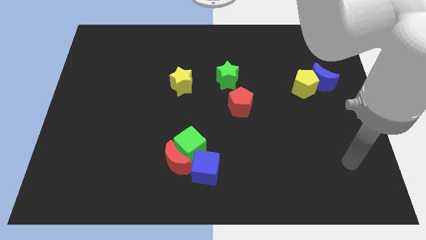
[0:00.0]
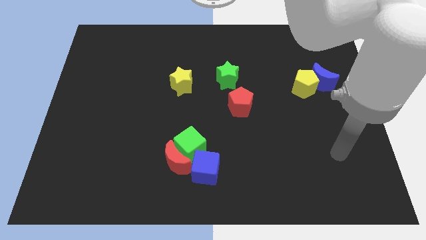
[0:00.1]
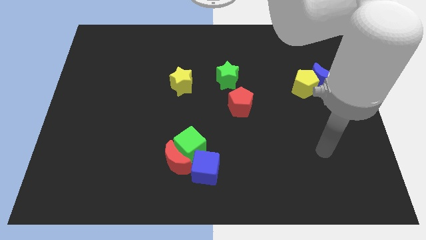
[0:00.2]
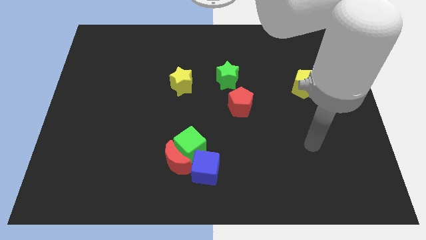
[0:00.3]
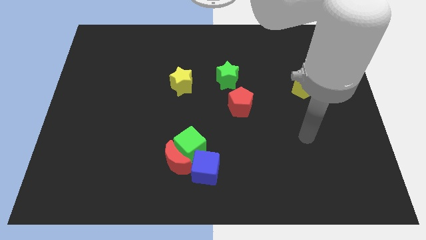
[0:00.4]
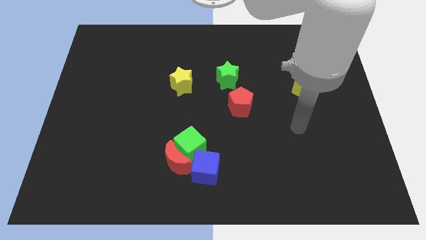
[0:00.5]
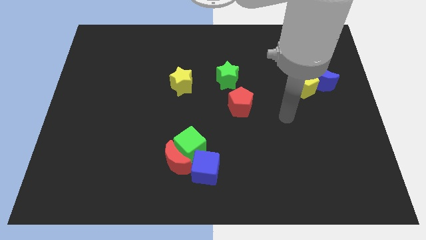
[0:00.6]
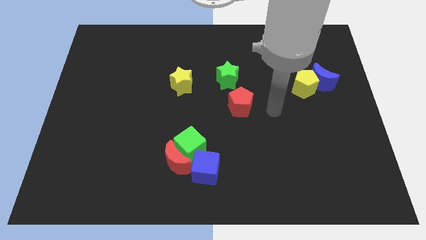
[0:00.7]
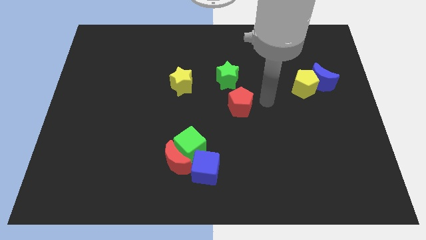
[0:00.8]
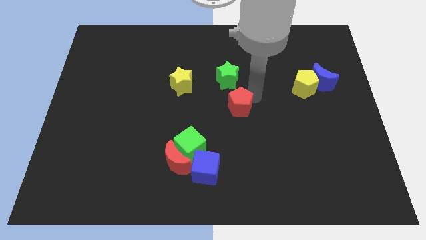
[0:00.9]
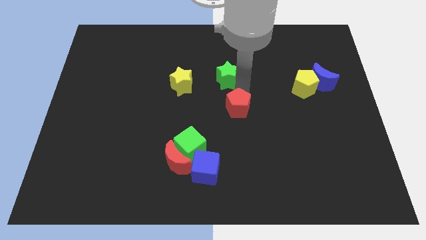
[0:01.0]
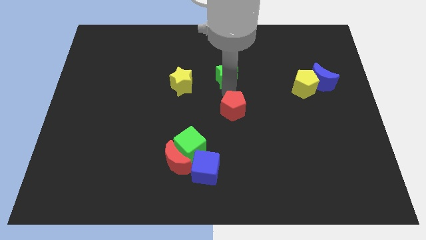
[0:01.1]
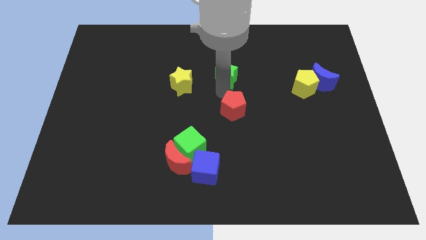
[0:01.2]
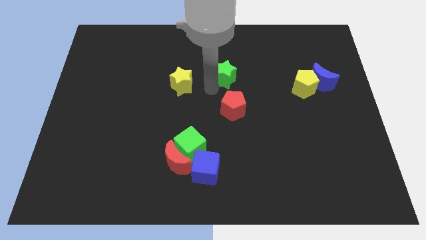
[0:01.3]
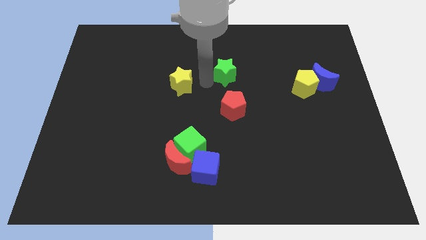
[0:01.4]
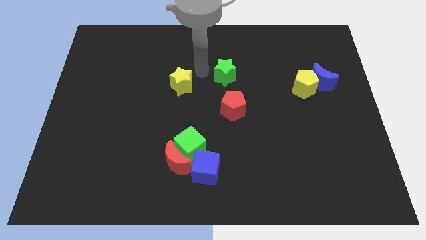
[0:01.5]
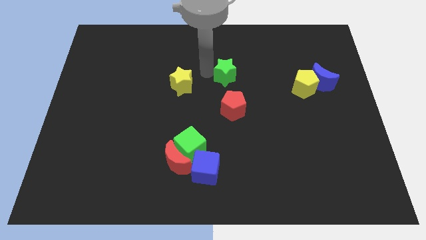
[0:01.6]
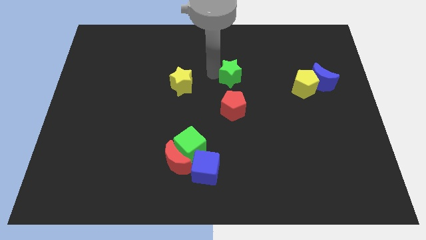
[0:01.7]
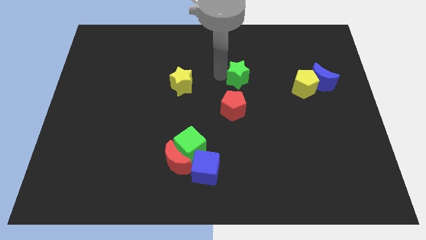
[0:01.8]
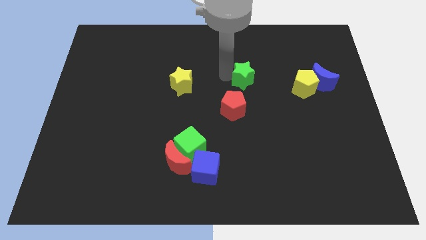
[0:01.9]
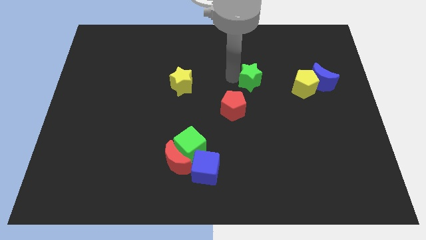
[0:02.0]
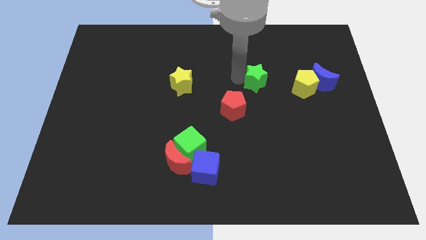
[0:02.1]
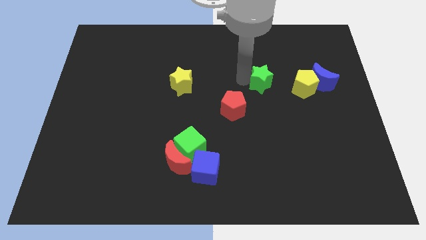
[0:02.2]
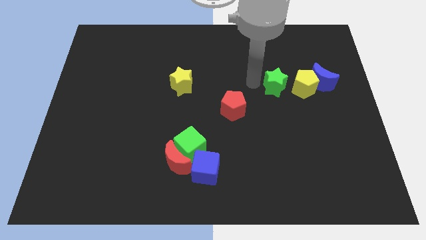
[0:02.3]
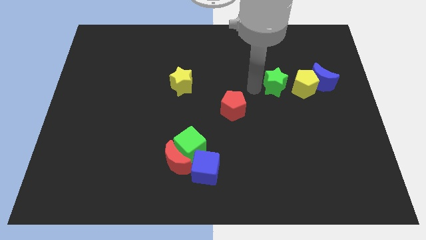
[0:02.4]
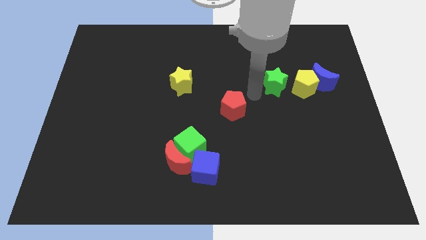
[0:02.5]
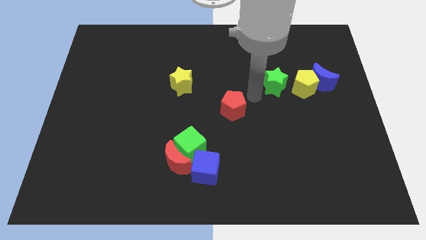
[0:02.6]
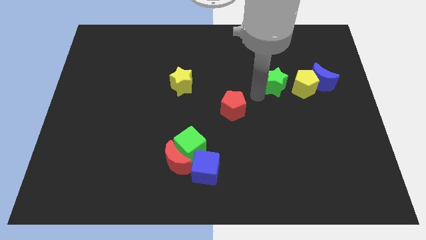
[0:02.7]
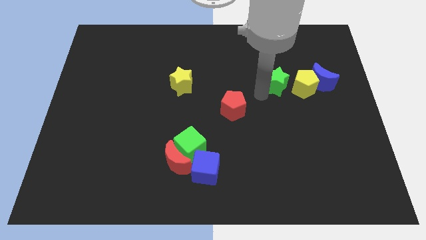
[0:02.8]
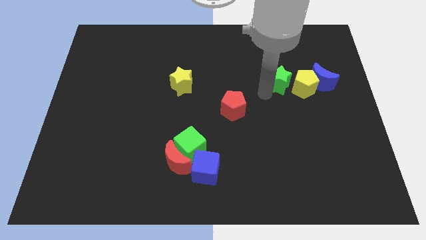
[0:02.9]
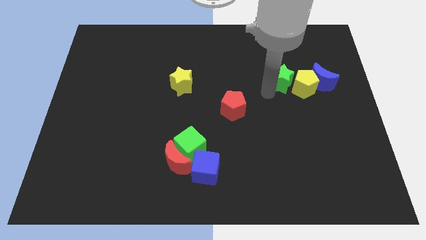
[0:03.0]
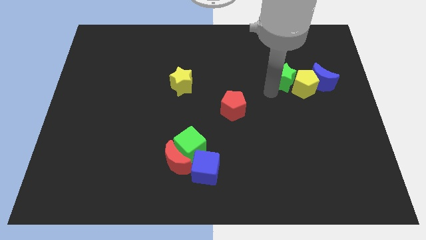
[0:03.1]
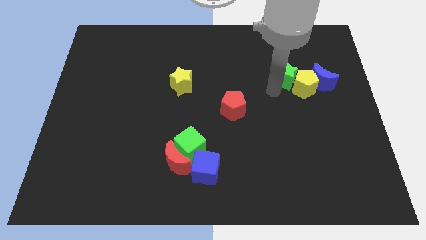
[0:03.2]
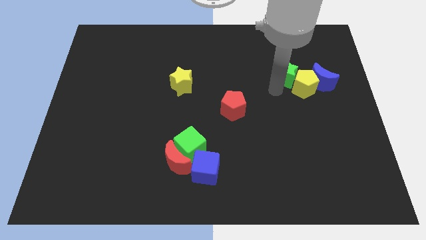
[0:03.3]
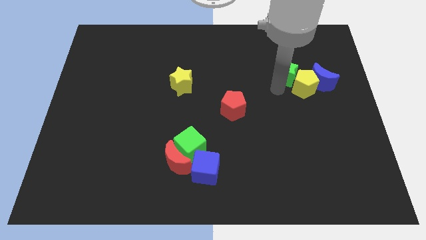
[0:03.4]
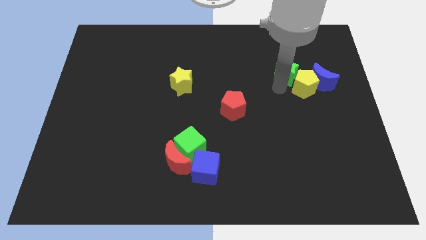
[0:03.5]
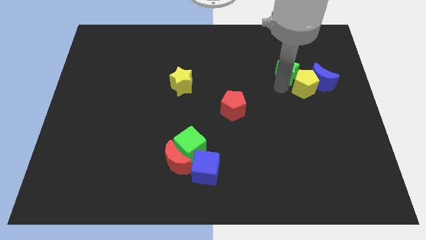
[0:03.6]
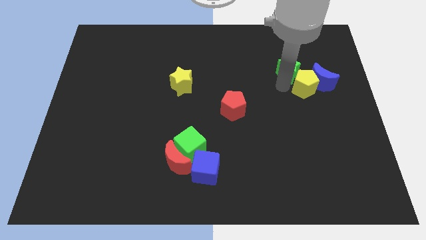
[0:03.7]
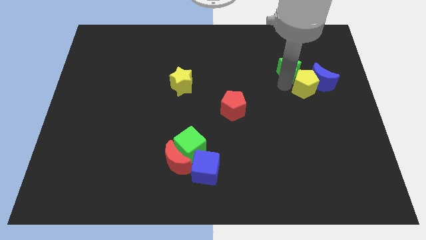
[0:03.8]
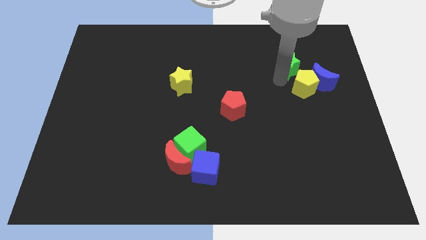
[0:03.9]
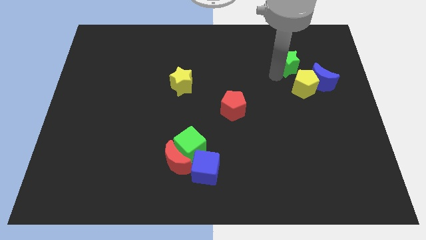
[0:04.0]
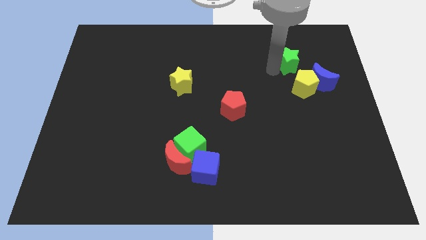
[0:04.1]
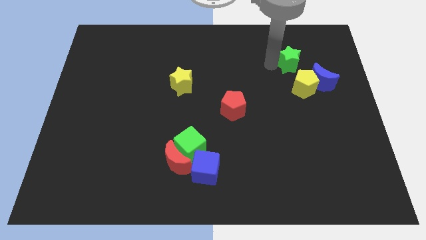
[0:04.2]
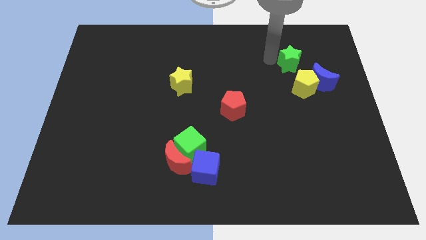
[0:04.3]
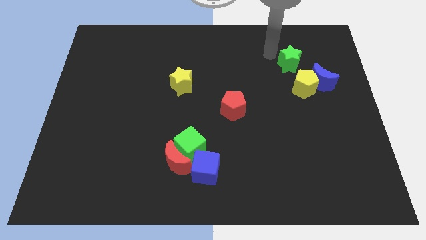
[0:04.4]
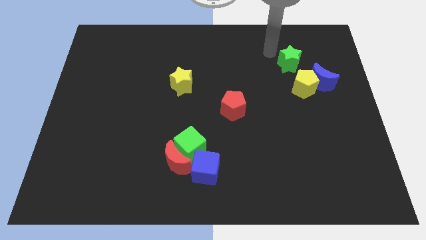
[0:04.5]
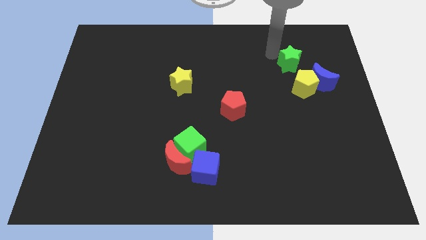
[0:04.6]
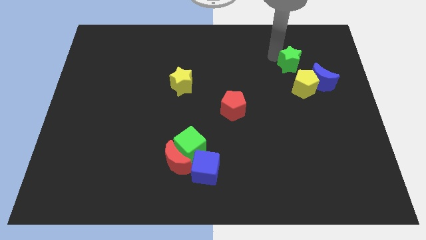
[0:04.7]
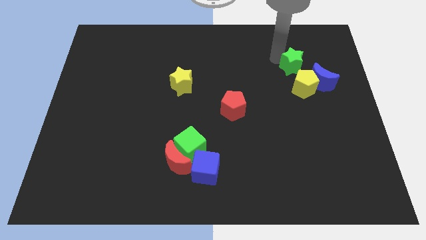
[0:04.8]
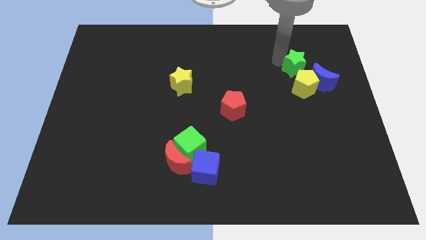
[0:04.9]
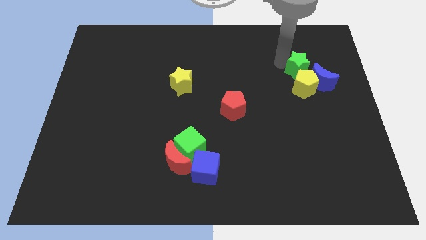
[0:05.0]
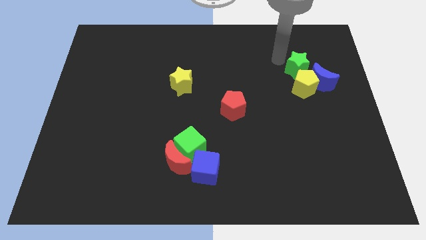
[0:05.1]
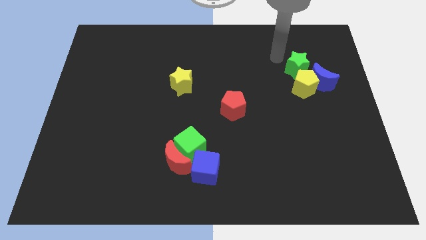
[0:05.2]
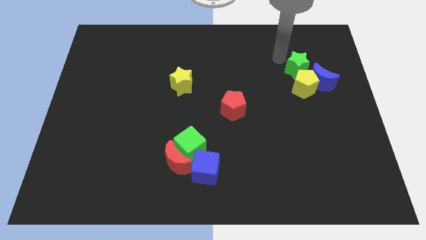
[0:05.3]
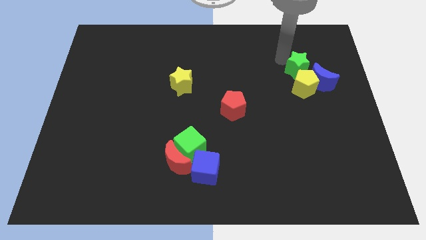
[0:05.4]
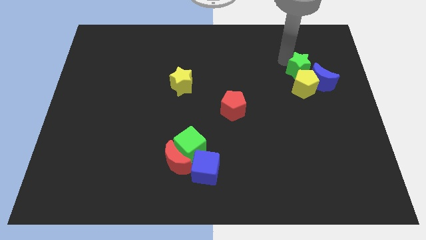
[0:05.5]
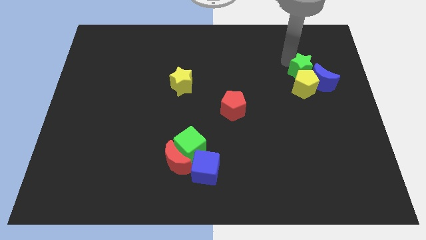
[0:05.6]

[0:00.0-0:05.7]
slide the green star to the blue moon

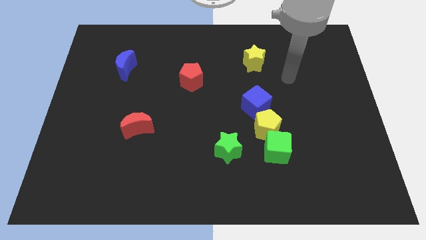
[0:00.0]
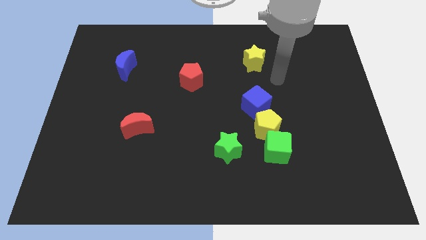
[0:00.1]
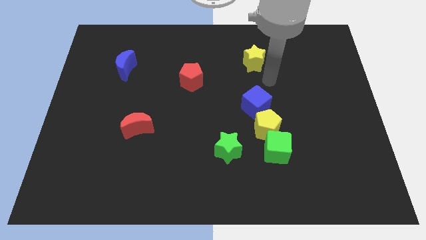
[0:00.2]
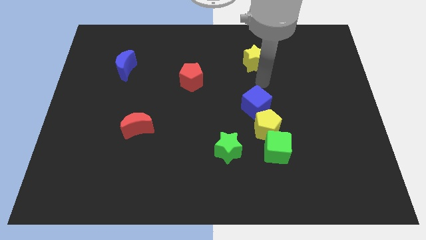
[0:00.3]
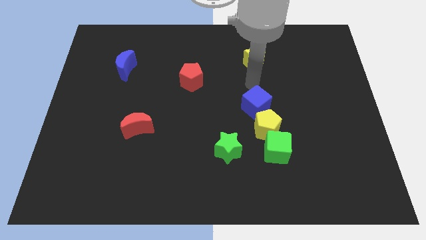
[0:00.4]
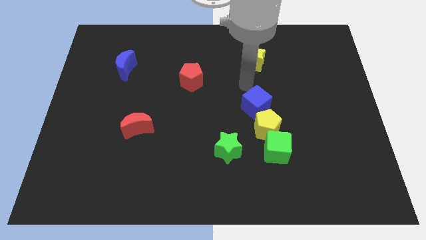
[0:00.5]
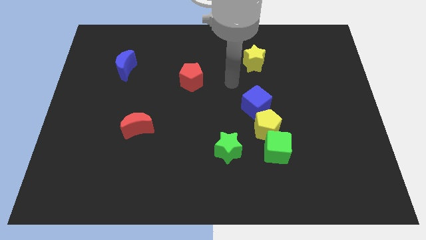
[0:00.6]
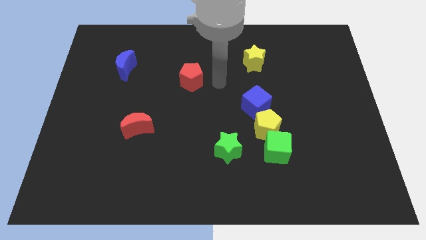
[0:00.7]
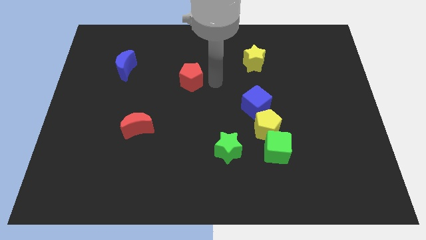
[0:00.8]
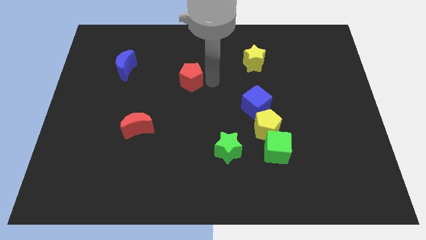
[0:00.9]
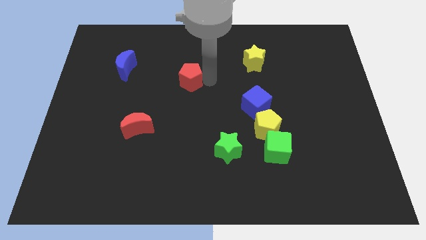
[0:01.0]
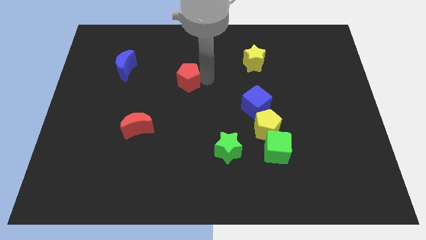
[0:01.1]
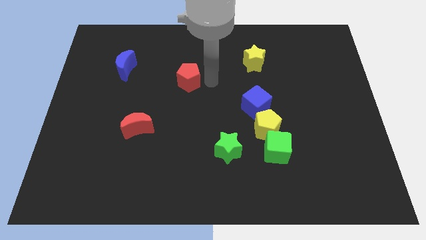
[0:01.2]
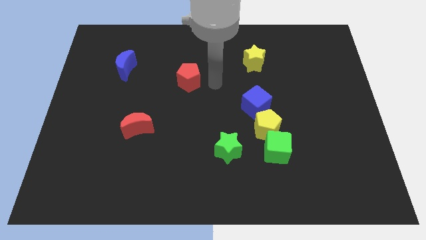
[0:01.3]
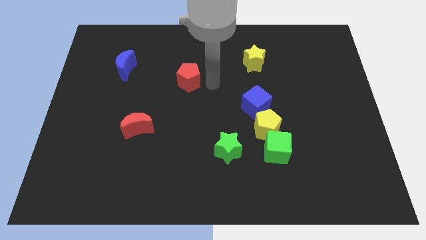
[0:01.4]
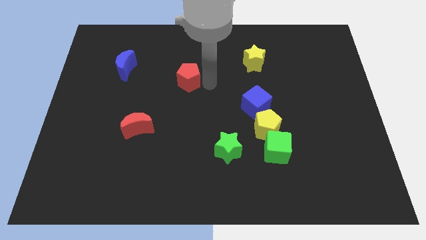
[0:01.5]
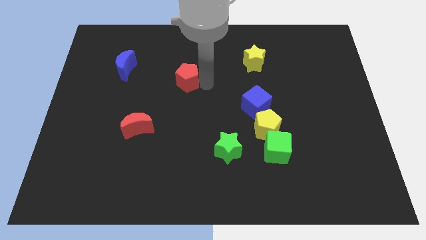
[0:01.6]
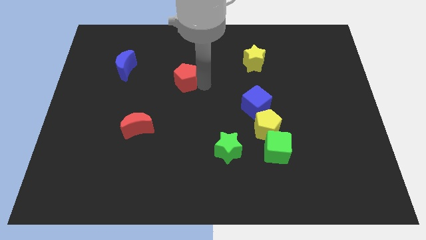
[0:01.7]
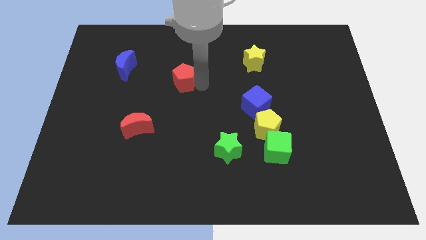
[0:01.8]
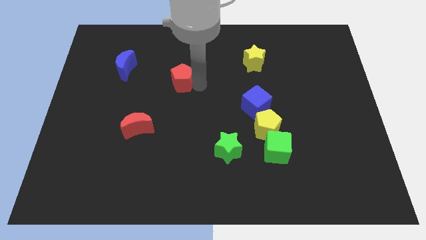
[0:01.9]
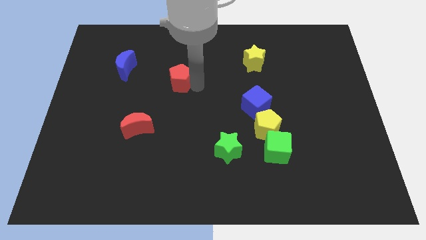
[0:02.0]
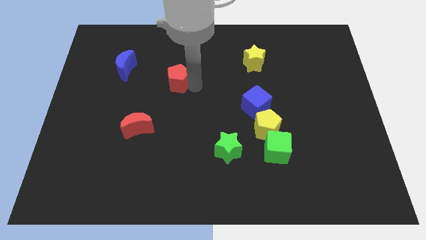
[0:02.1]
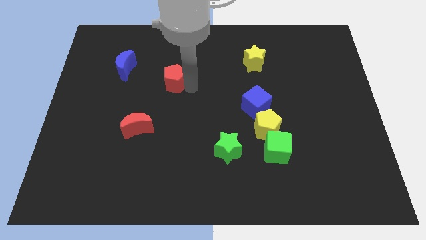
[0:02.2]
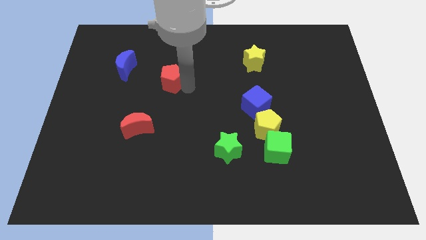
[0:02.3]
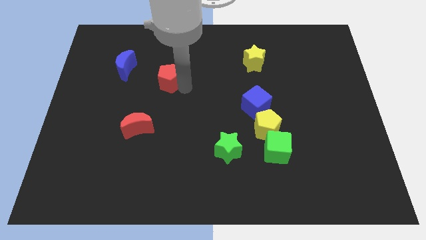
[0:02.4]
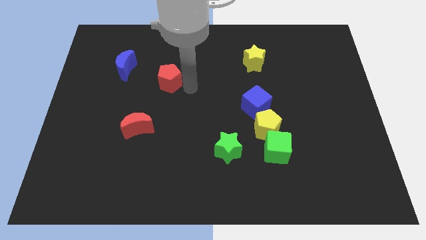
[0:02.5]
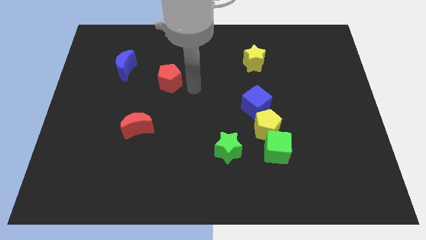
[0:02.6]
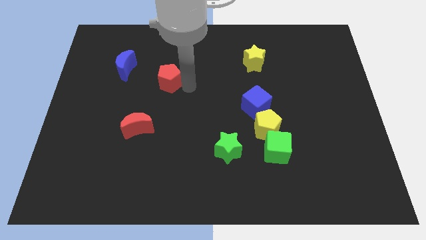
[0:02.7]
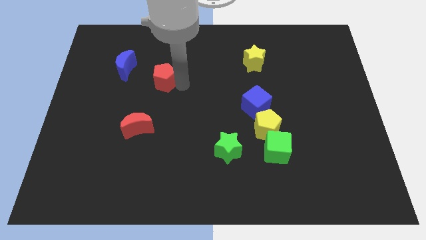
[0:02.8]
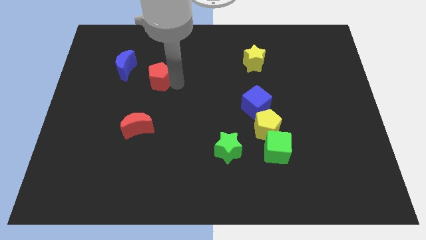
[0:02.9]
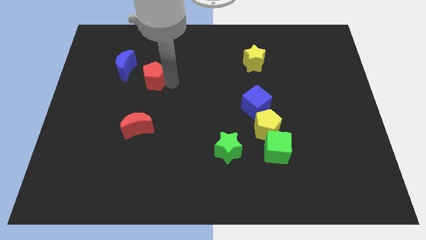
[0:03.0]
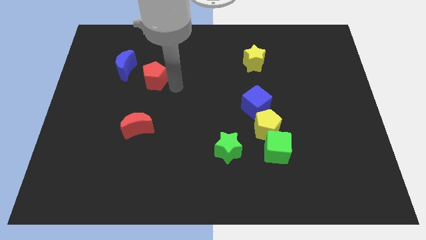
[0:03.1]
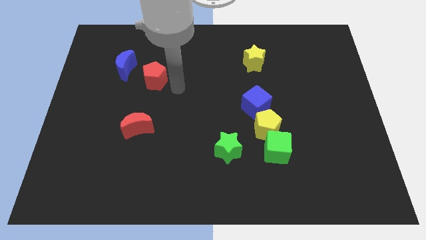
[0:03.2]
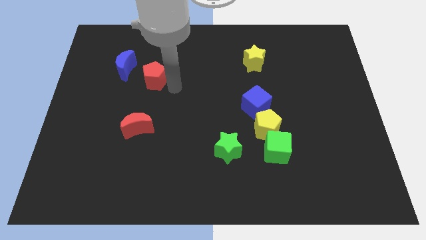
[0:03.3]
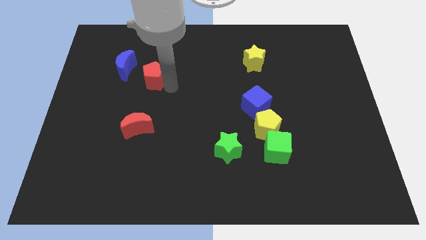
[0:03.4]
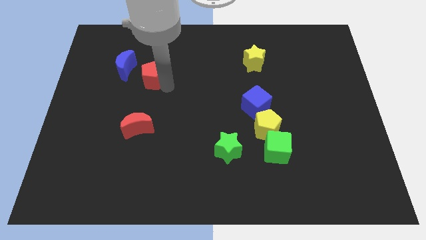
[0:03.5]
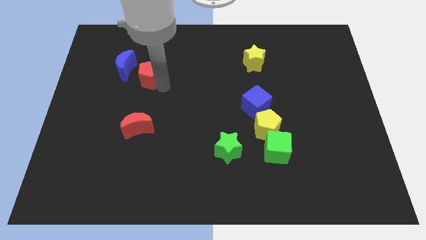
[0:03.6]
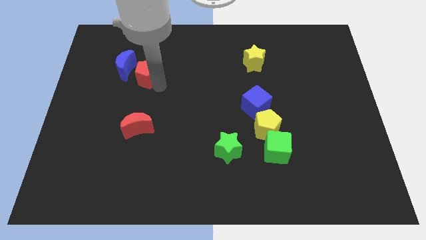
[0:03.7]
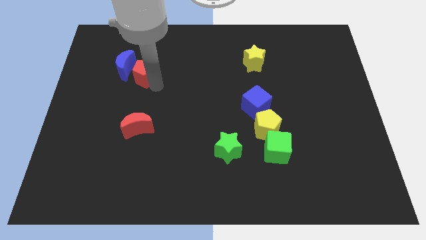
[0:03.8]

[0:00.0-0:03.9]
slide the red pentagon towards the blue moon
